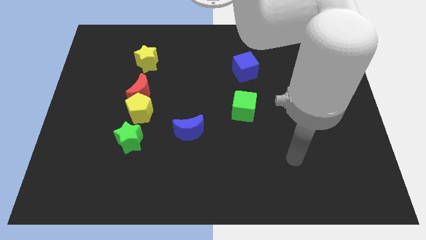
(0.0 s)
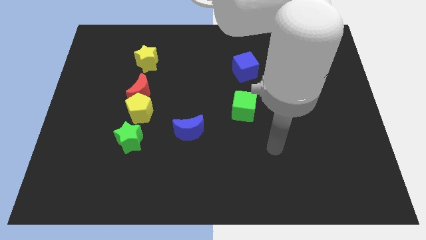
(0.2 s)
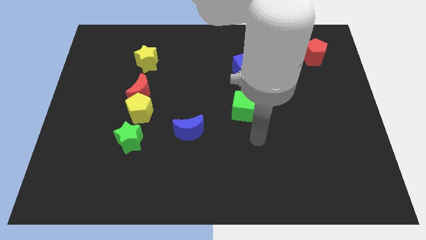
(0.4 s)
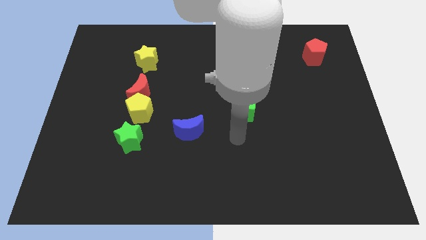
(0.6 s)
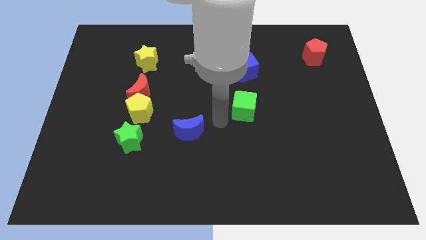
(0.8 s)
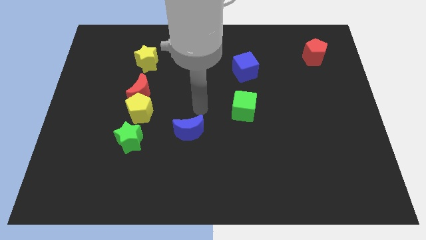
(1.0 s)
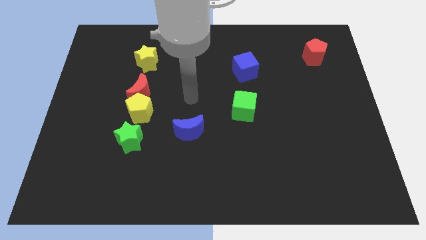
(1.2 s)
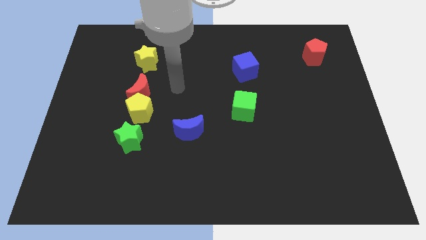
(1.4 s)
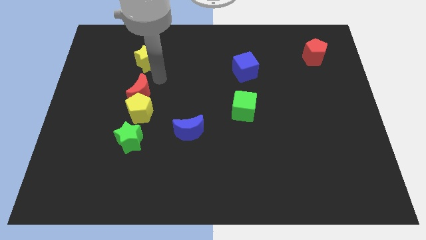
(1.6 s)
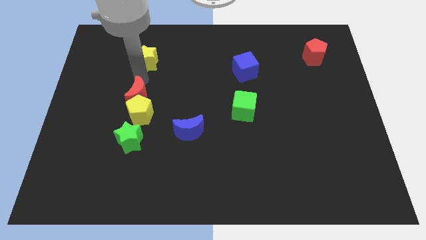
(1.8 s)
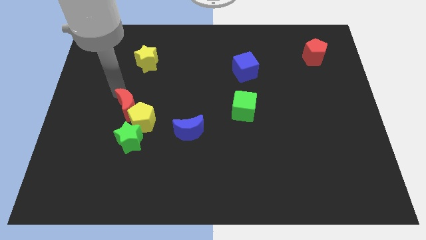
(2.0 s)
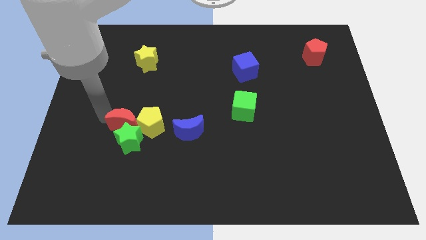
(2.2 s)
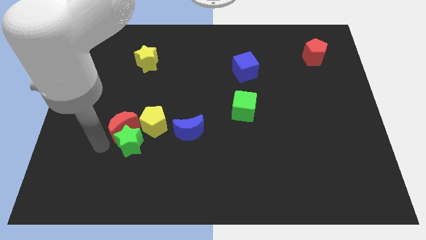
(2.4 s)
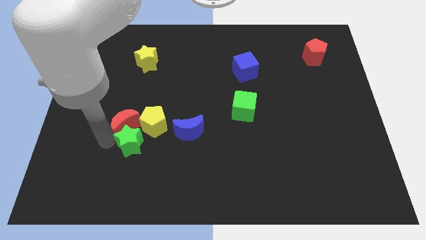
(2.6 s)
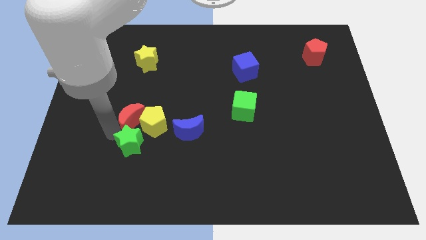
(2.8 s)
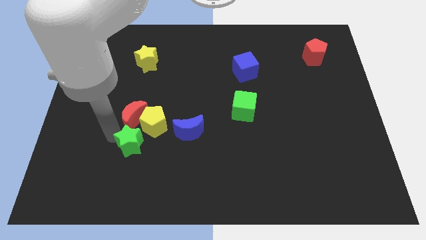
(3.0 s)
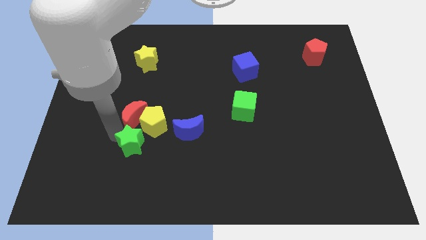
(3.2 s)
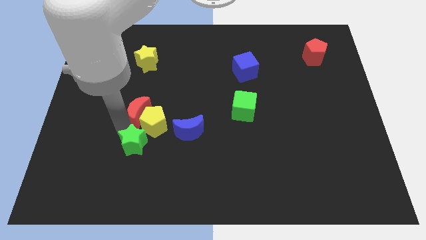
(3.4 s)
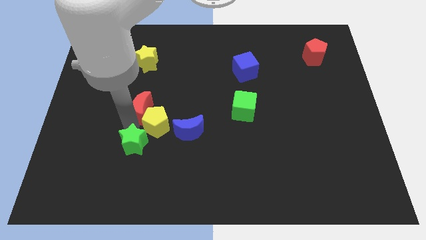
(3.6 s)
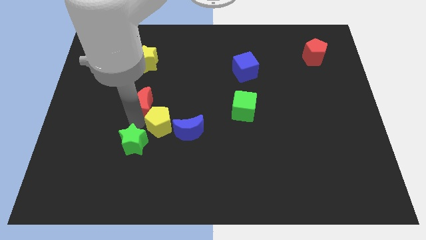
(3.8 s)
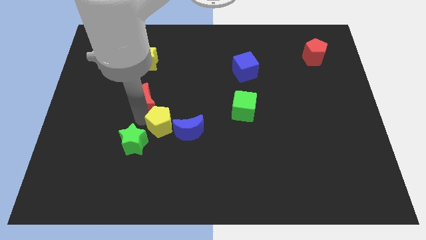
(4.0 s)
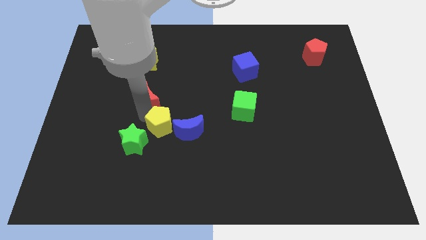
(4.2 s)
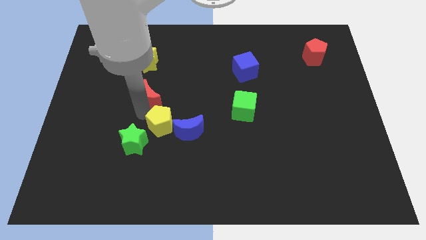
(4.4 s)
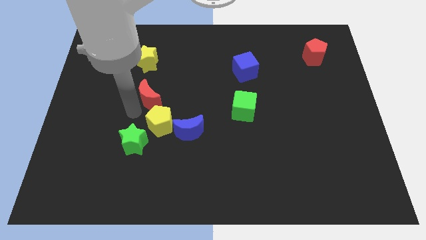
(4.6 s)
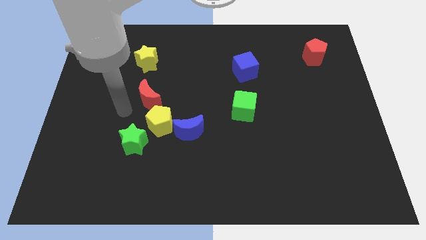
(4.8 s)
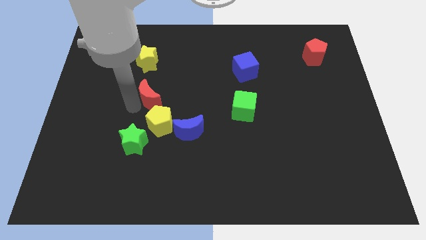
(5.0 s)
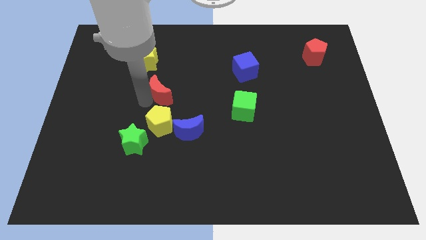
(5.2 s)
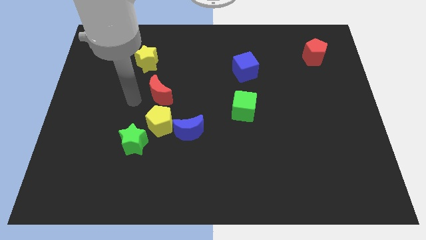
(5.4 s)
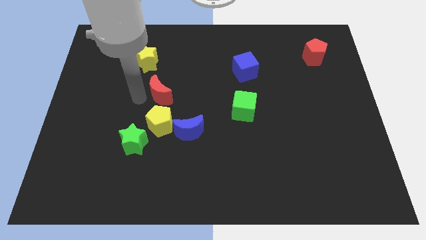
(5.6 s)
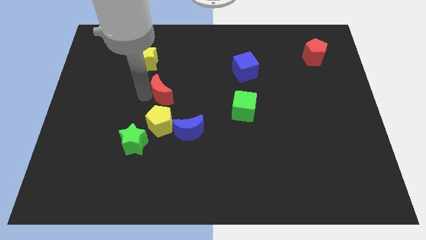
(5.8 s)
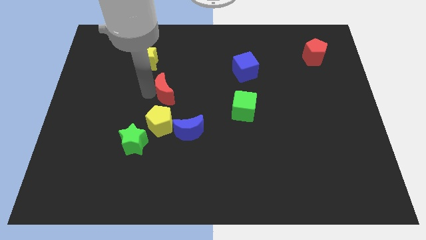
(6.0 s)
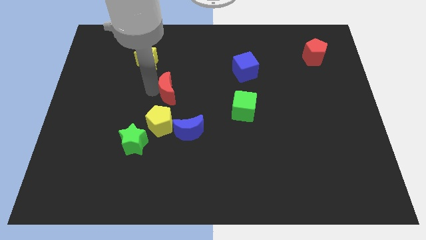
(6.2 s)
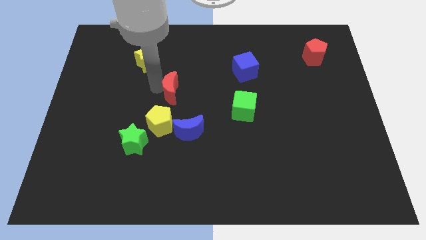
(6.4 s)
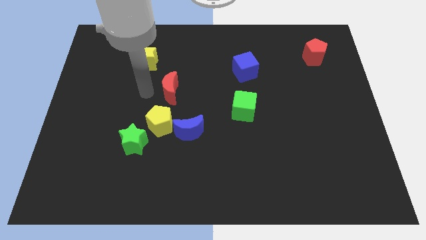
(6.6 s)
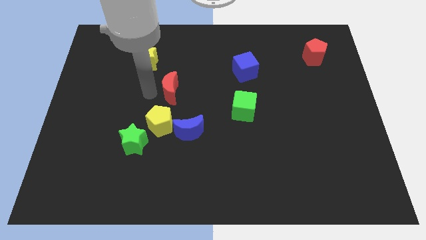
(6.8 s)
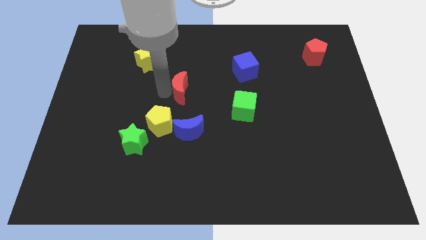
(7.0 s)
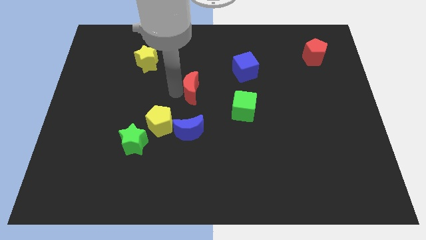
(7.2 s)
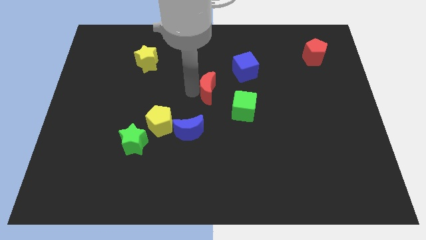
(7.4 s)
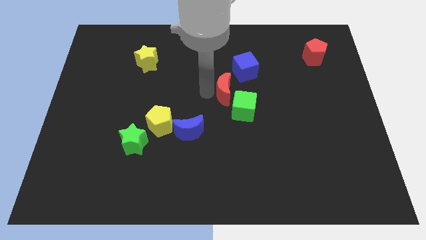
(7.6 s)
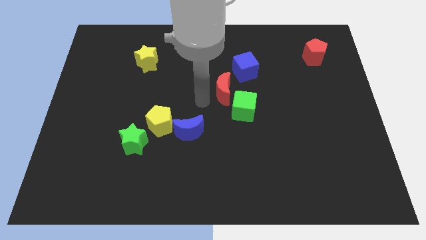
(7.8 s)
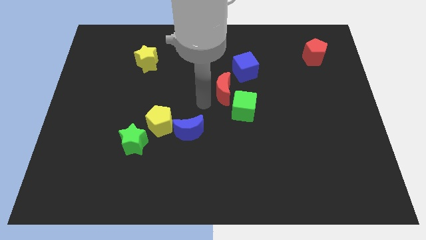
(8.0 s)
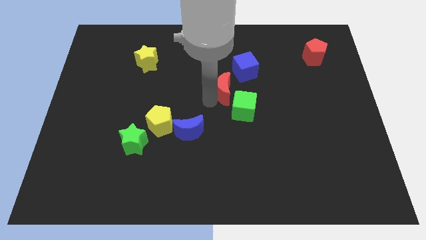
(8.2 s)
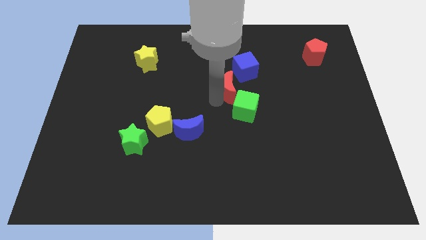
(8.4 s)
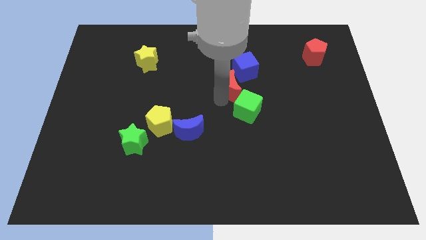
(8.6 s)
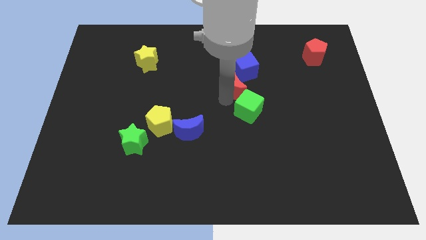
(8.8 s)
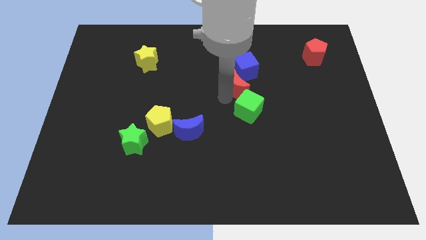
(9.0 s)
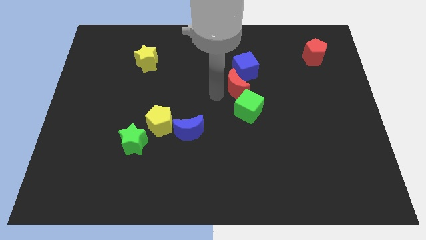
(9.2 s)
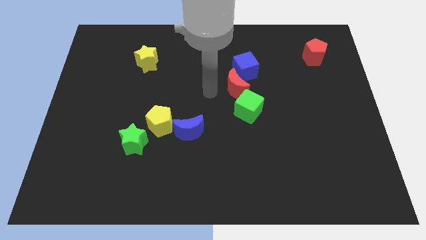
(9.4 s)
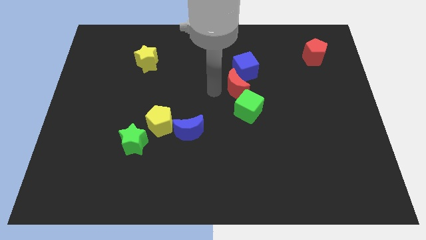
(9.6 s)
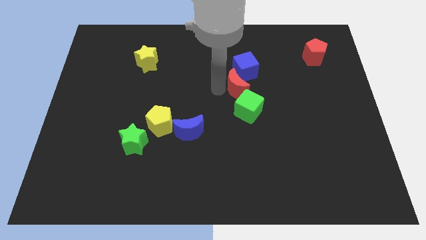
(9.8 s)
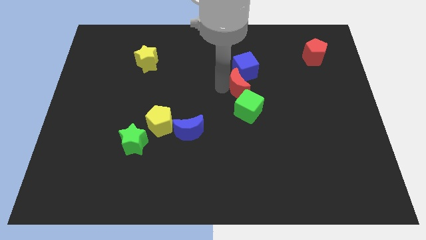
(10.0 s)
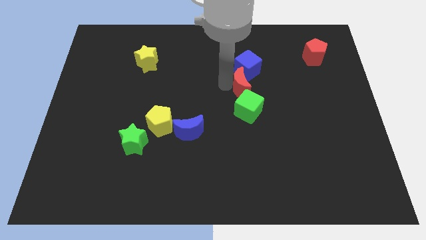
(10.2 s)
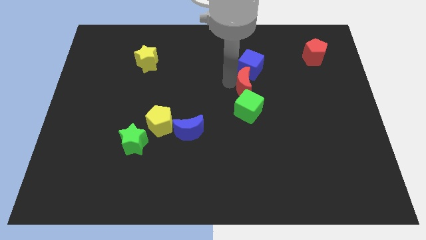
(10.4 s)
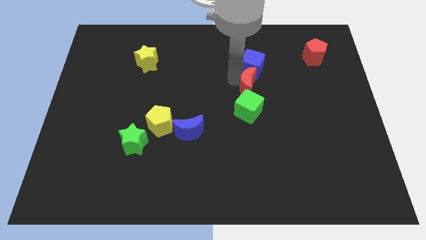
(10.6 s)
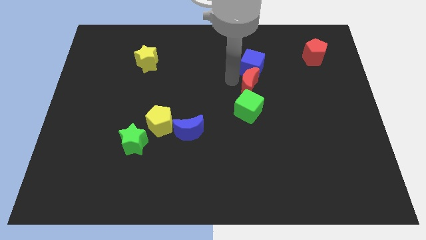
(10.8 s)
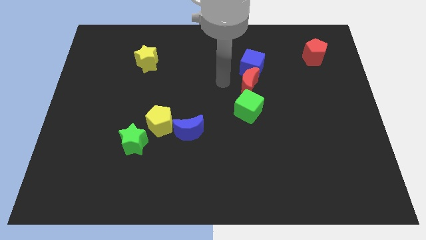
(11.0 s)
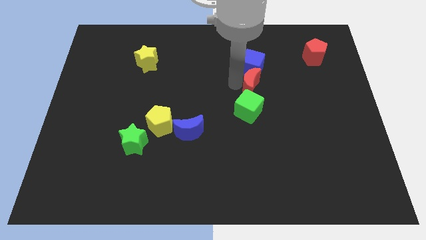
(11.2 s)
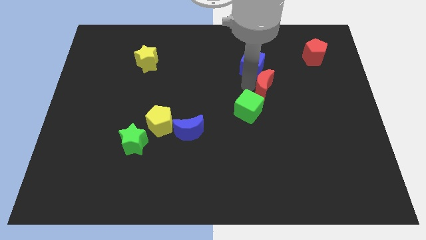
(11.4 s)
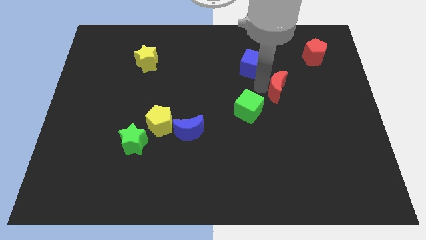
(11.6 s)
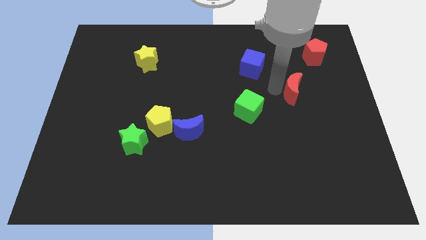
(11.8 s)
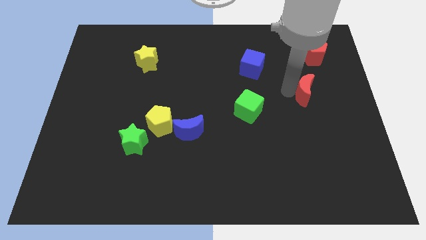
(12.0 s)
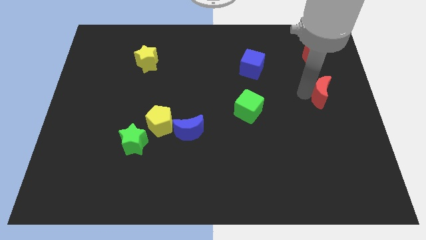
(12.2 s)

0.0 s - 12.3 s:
move the red moon to the right side

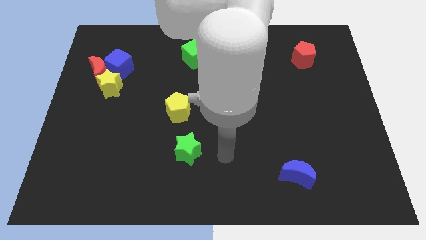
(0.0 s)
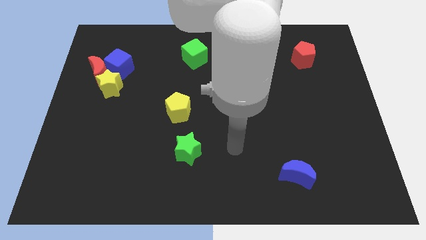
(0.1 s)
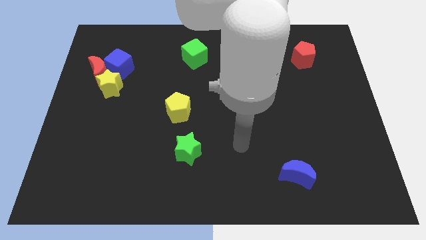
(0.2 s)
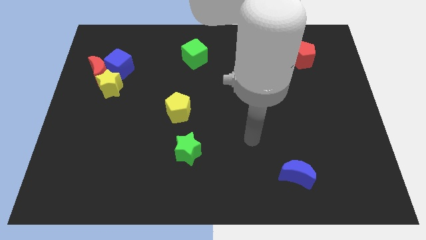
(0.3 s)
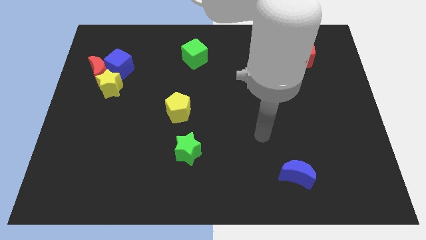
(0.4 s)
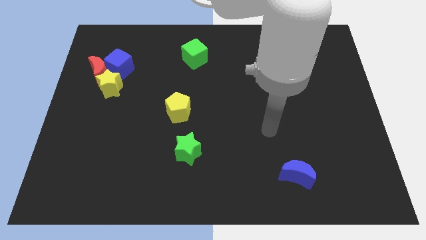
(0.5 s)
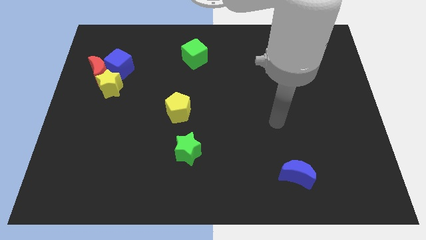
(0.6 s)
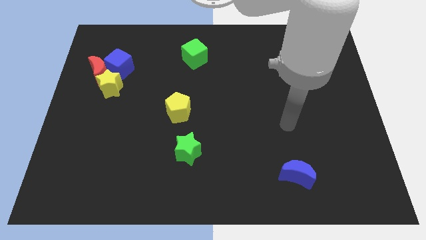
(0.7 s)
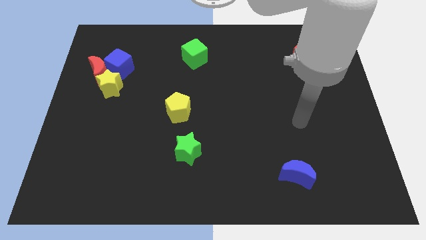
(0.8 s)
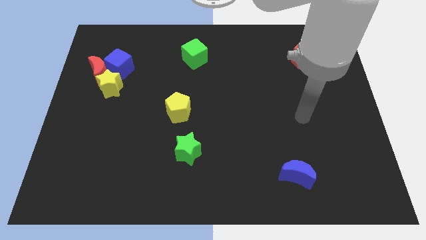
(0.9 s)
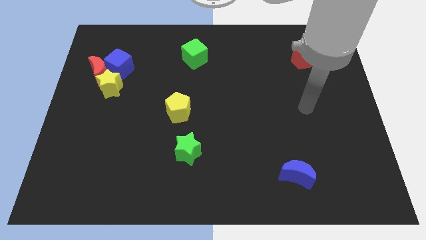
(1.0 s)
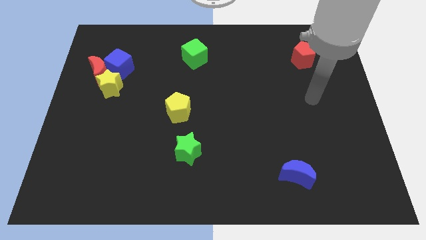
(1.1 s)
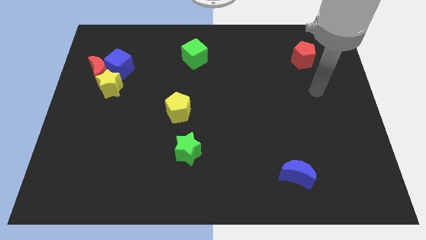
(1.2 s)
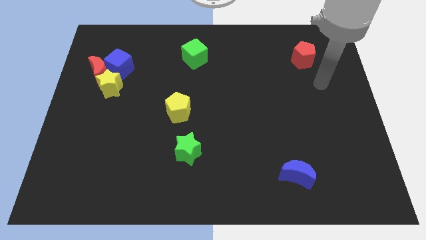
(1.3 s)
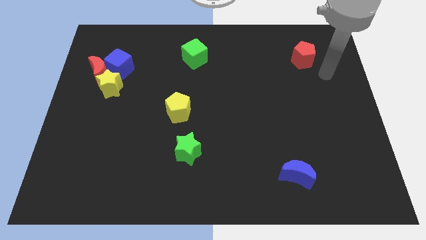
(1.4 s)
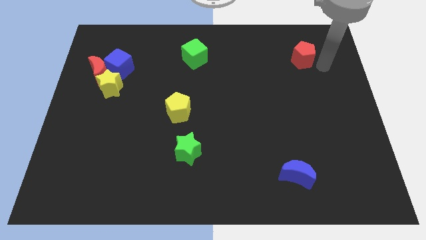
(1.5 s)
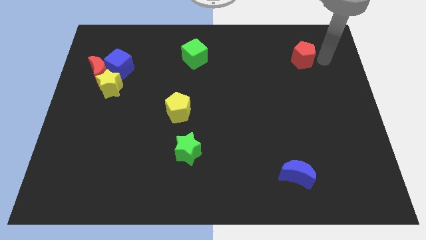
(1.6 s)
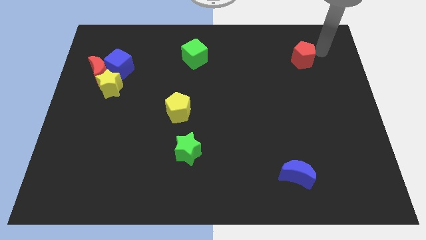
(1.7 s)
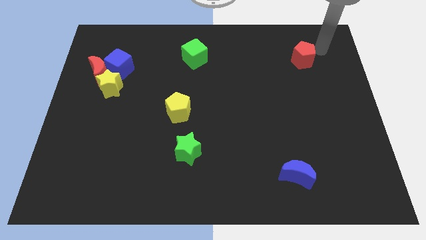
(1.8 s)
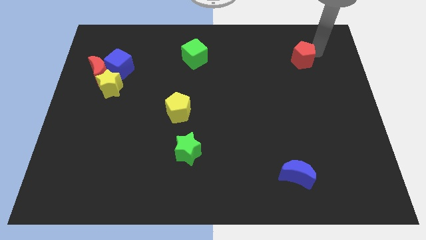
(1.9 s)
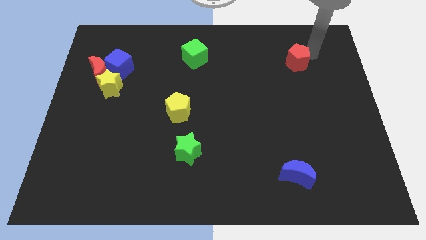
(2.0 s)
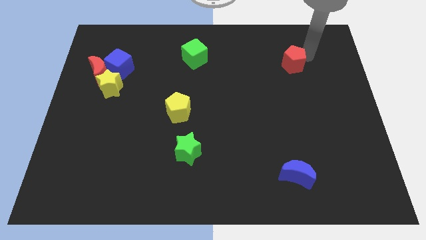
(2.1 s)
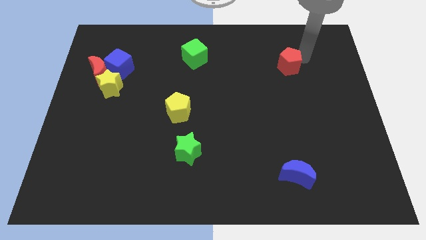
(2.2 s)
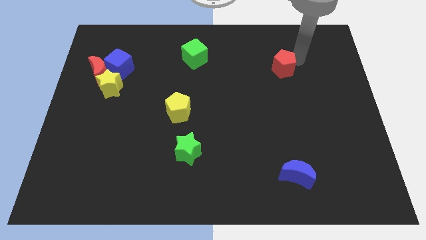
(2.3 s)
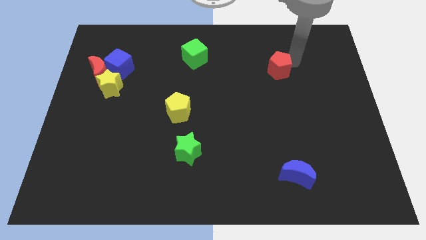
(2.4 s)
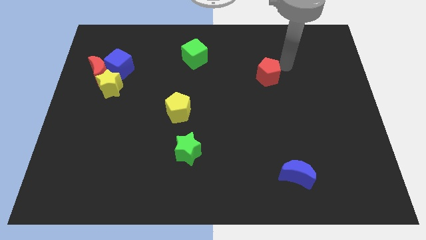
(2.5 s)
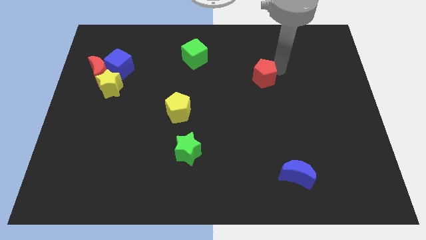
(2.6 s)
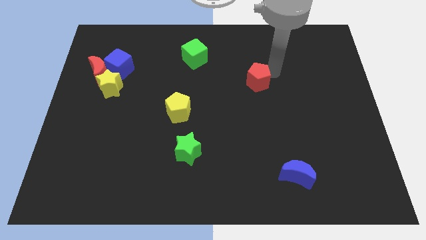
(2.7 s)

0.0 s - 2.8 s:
push the red pentagon to the center of the board
